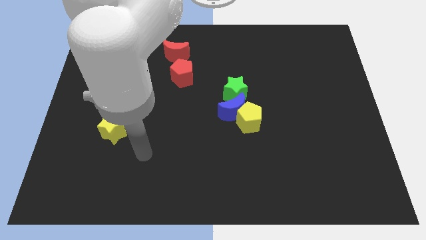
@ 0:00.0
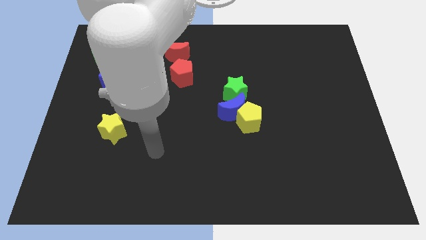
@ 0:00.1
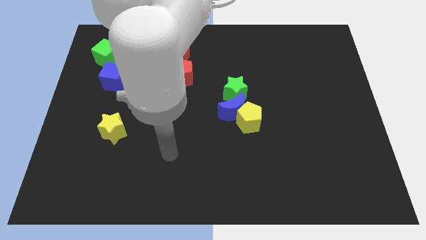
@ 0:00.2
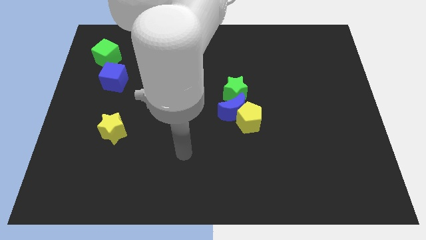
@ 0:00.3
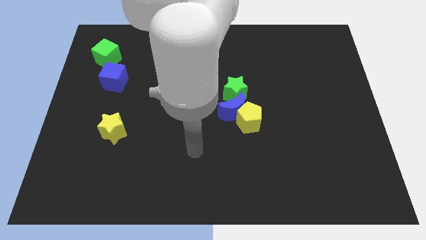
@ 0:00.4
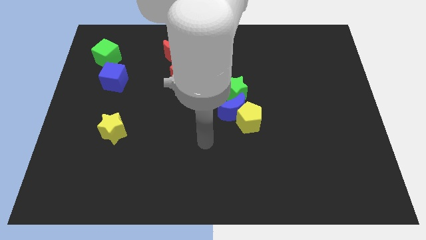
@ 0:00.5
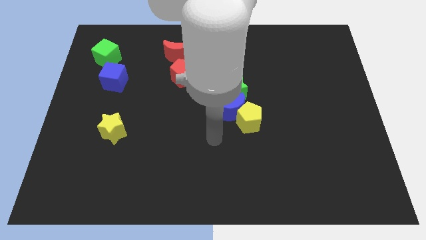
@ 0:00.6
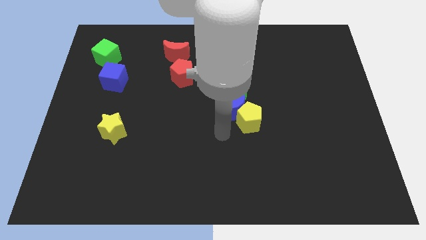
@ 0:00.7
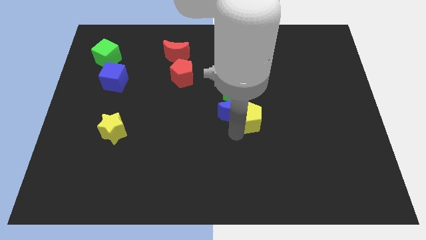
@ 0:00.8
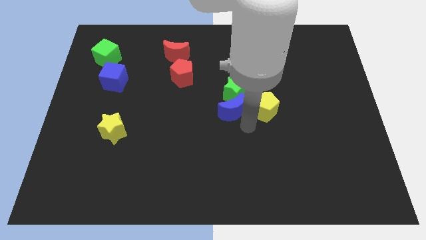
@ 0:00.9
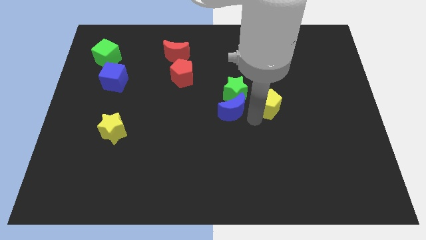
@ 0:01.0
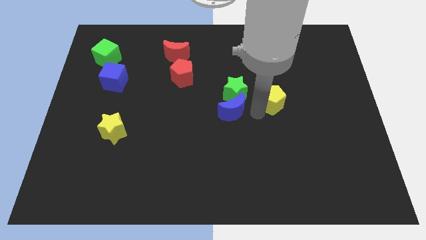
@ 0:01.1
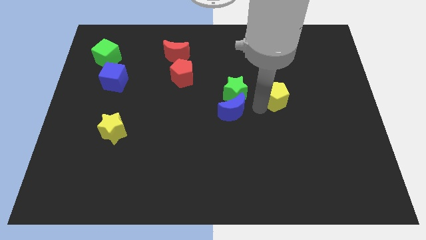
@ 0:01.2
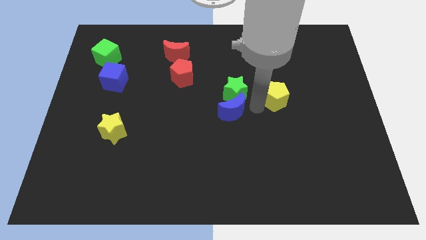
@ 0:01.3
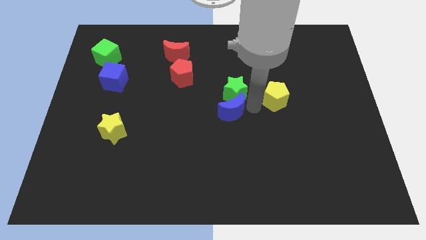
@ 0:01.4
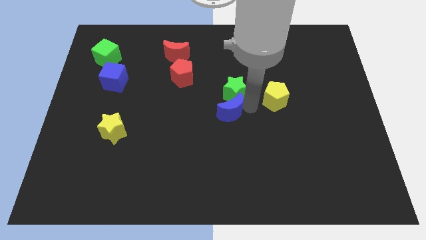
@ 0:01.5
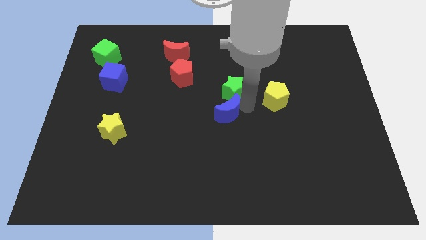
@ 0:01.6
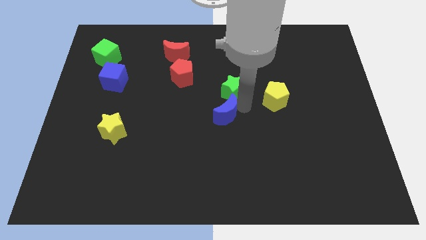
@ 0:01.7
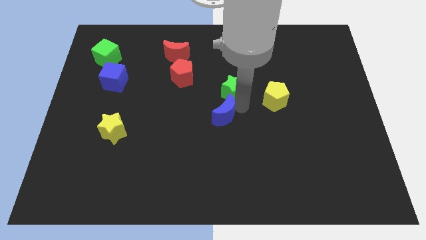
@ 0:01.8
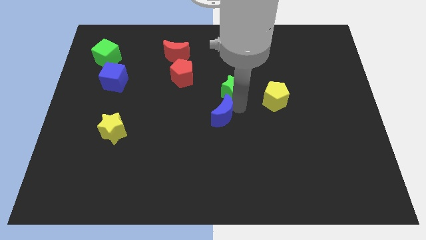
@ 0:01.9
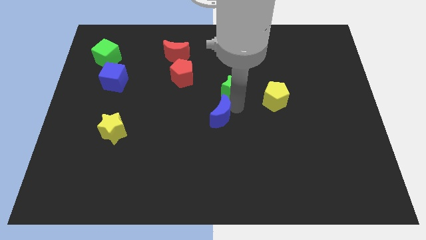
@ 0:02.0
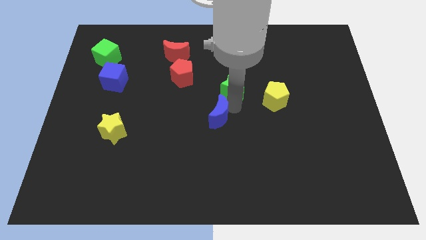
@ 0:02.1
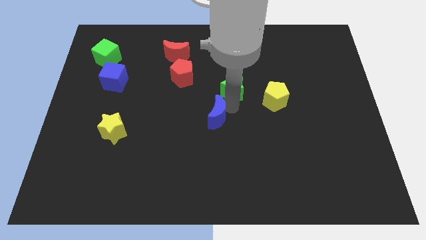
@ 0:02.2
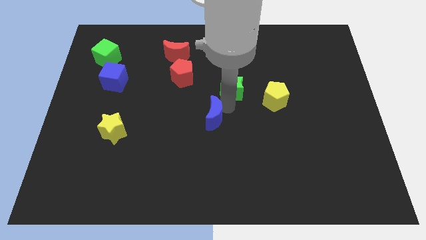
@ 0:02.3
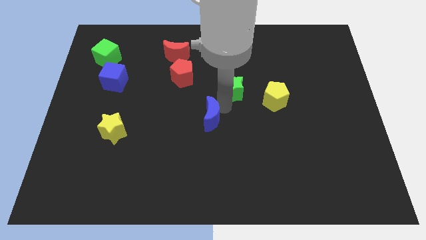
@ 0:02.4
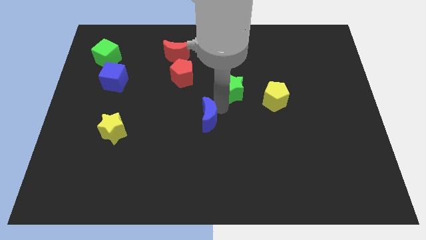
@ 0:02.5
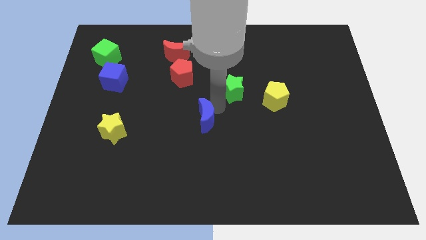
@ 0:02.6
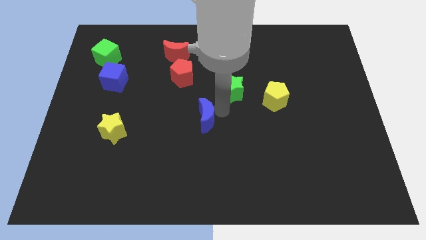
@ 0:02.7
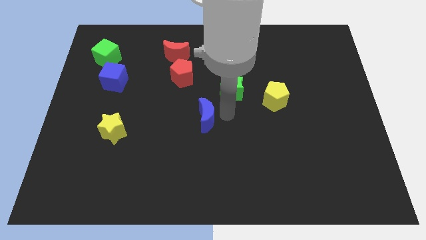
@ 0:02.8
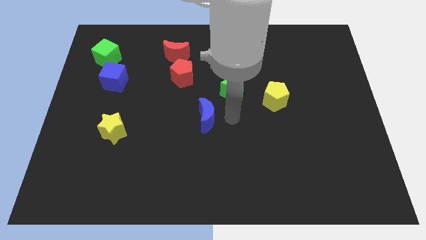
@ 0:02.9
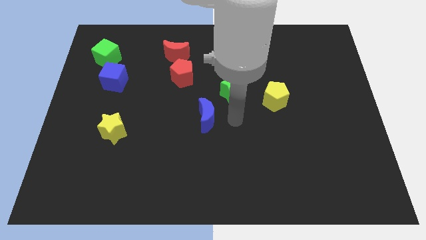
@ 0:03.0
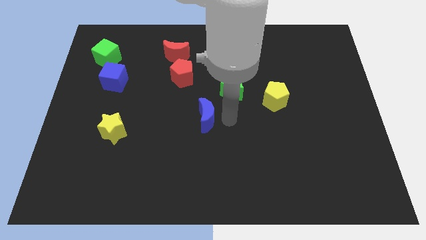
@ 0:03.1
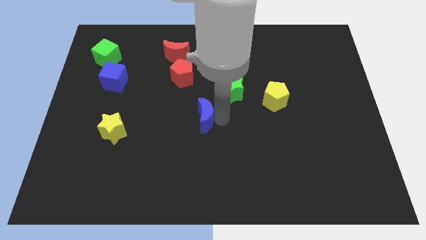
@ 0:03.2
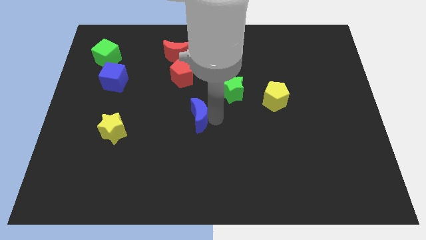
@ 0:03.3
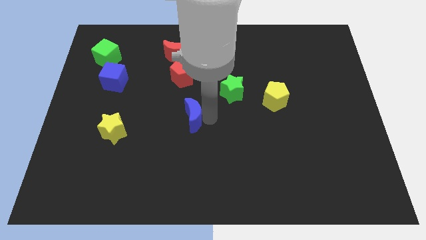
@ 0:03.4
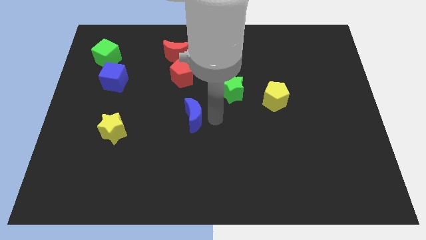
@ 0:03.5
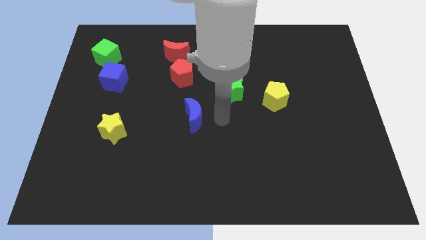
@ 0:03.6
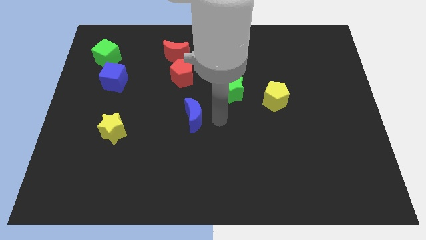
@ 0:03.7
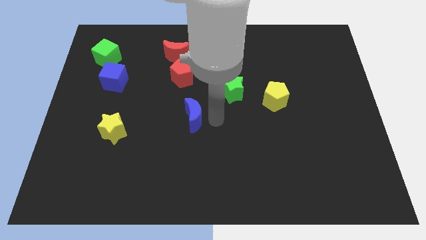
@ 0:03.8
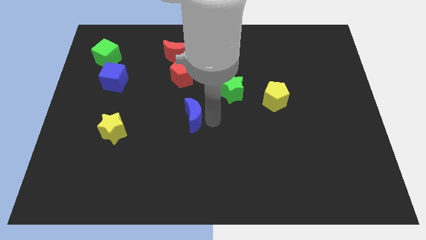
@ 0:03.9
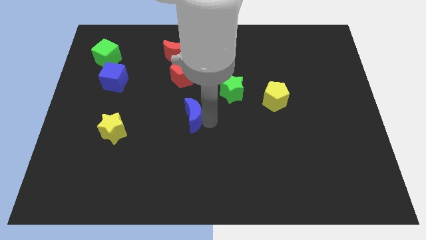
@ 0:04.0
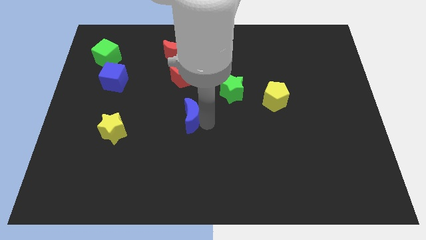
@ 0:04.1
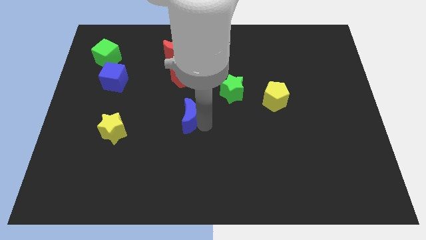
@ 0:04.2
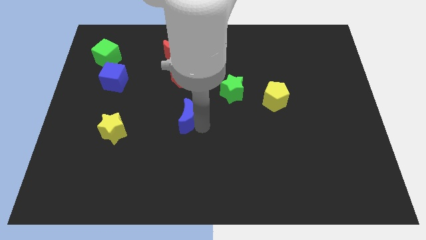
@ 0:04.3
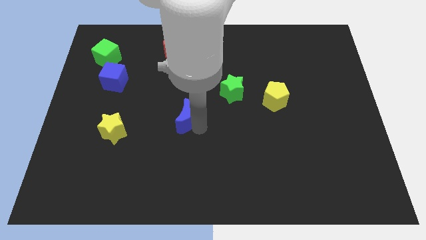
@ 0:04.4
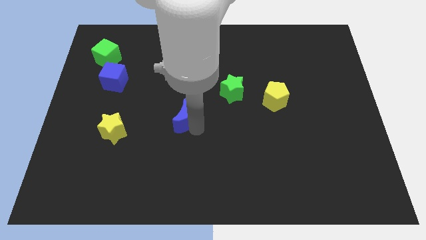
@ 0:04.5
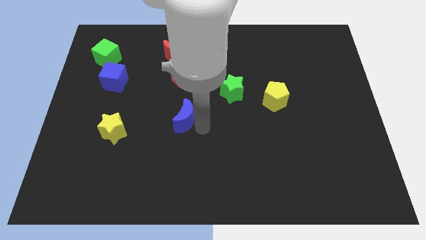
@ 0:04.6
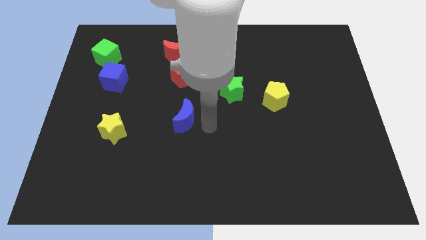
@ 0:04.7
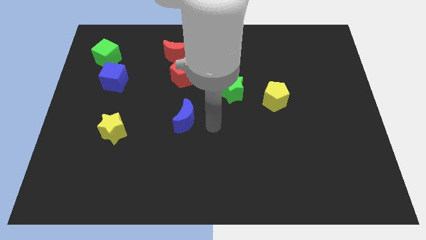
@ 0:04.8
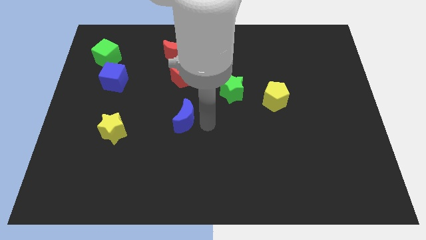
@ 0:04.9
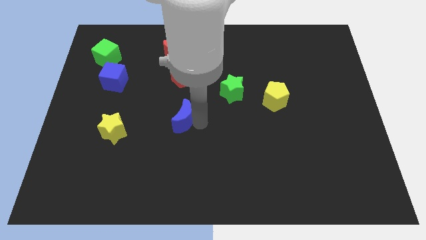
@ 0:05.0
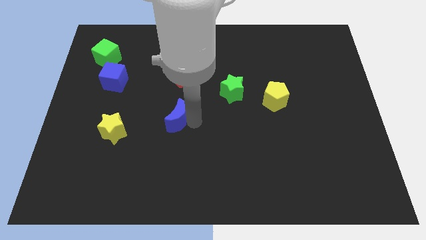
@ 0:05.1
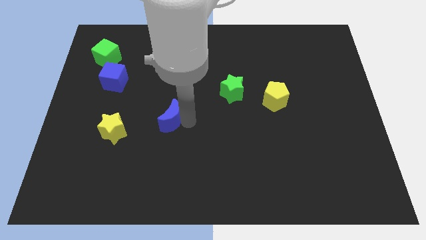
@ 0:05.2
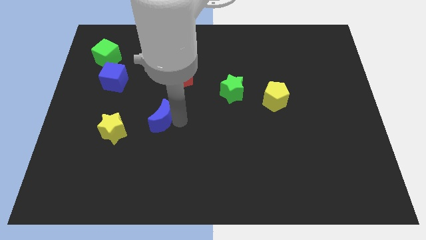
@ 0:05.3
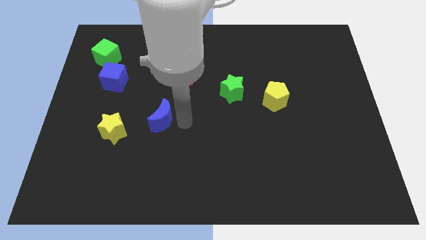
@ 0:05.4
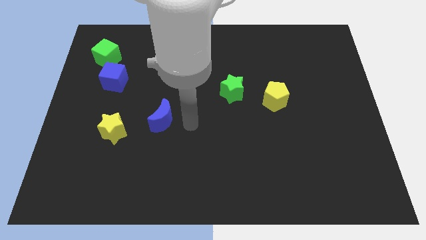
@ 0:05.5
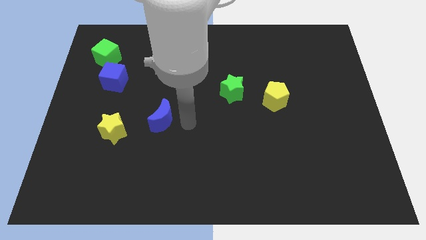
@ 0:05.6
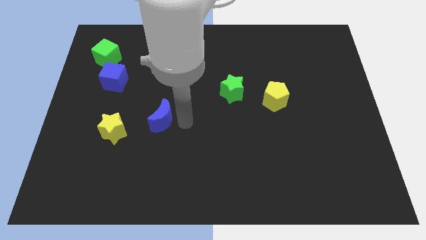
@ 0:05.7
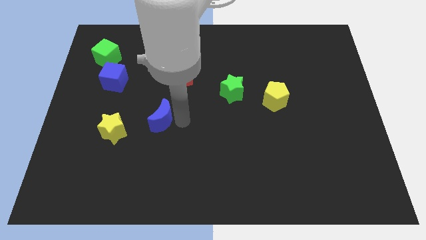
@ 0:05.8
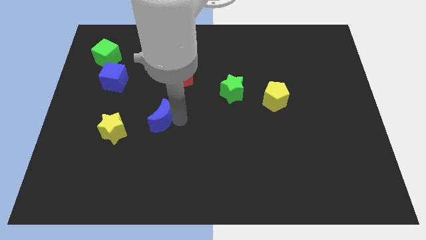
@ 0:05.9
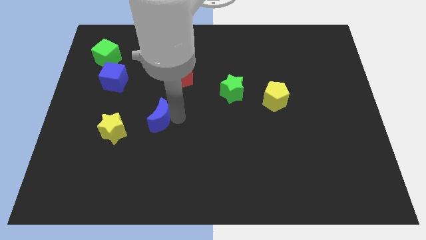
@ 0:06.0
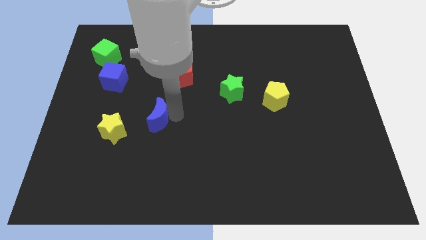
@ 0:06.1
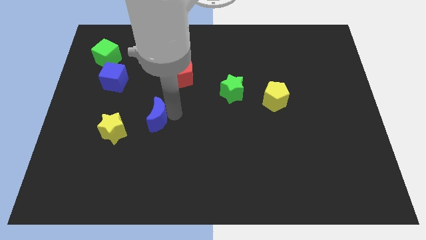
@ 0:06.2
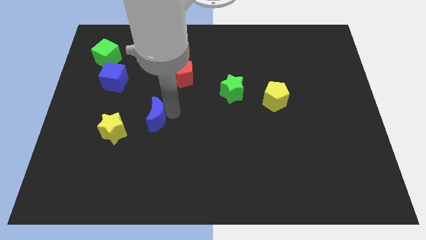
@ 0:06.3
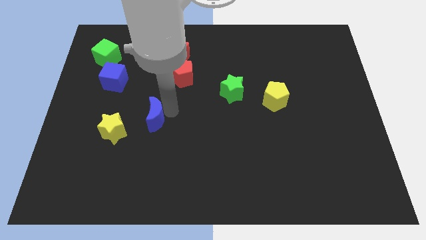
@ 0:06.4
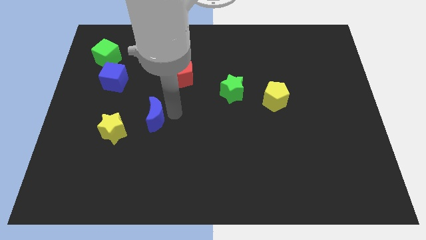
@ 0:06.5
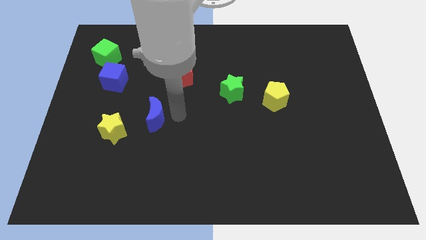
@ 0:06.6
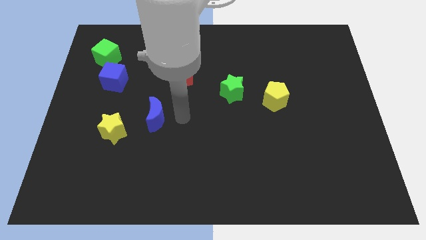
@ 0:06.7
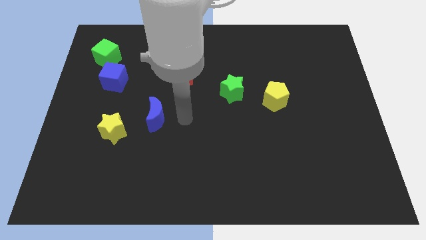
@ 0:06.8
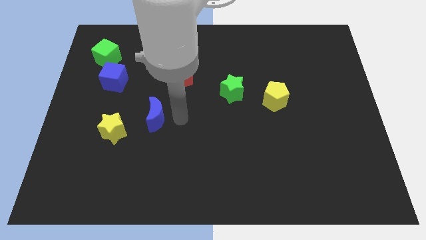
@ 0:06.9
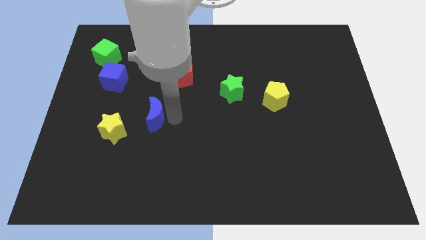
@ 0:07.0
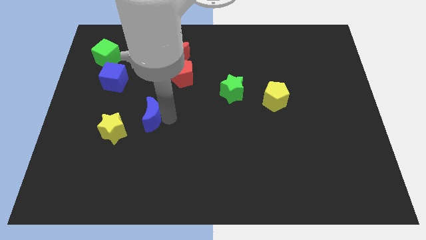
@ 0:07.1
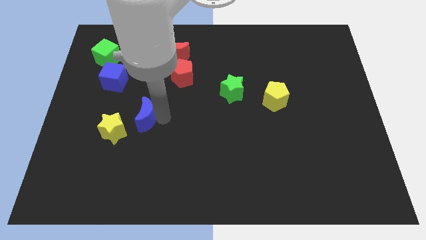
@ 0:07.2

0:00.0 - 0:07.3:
move the blue moon to the left

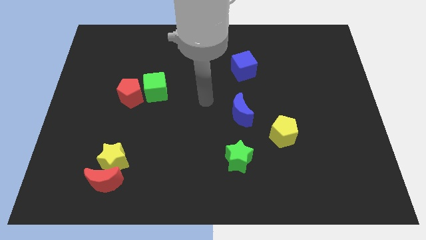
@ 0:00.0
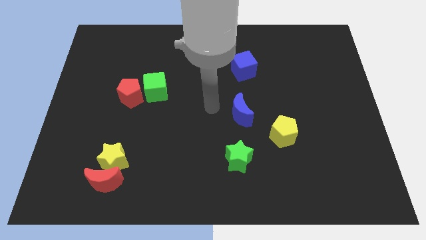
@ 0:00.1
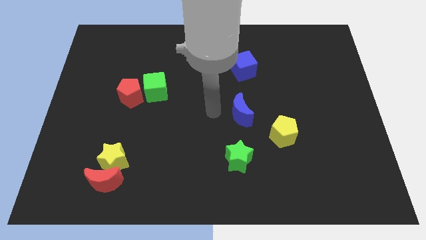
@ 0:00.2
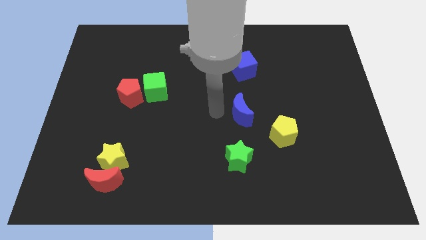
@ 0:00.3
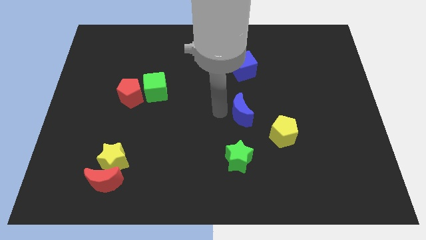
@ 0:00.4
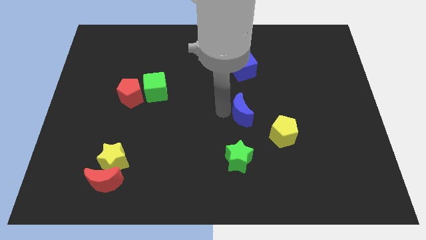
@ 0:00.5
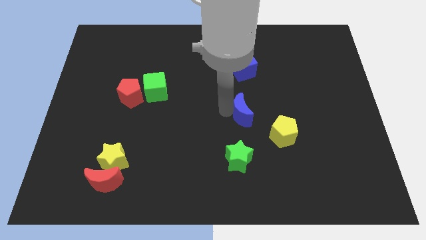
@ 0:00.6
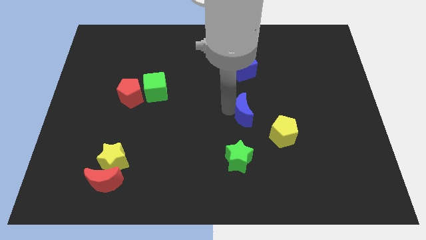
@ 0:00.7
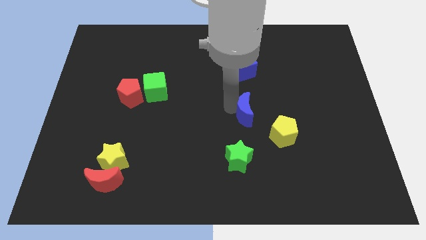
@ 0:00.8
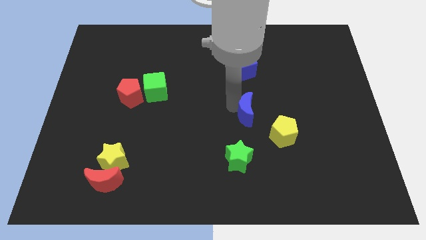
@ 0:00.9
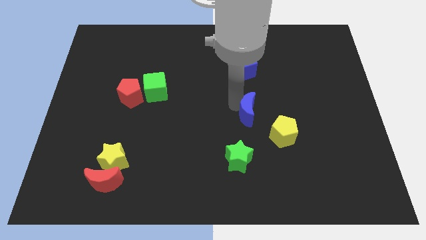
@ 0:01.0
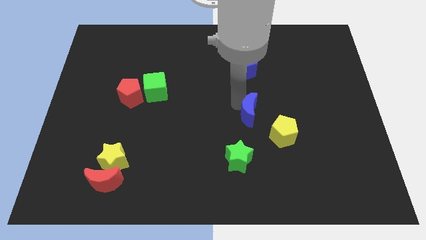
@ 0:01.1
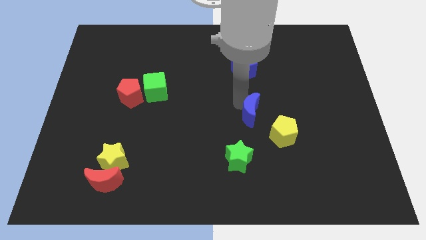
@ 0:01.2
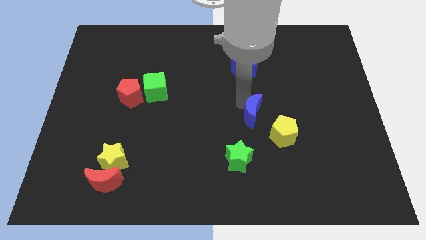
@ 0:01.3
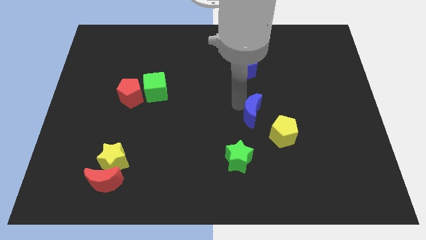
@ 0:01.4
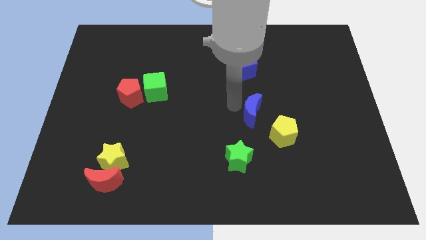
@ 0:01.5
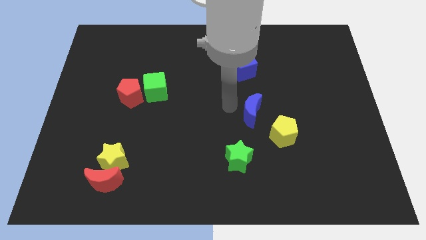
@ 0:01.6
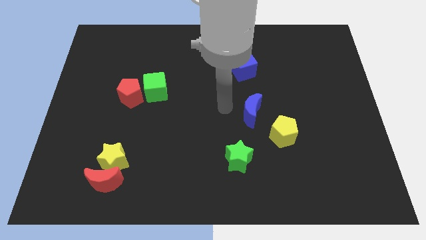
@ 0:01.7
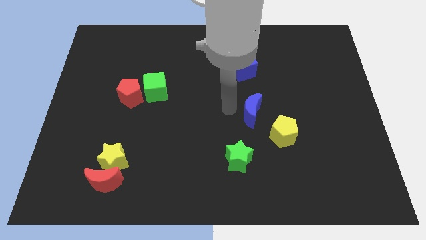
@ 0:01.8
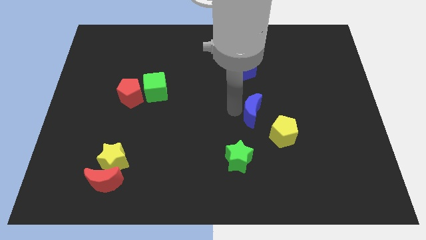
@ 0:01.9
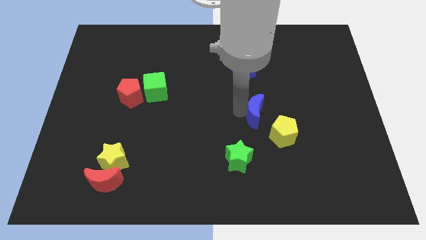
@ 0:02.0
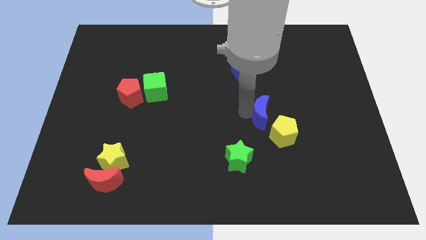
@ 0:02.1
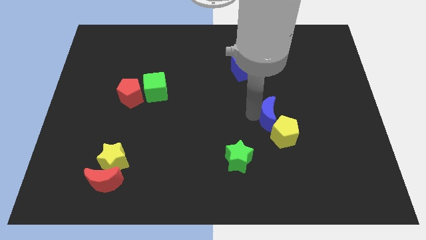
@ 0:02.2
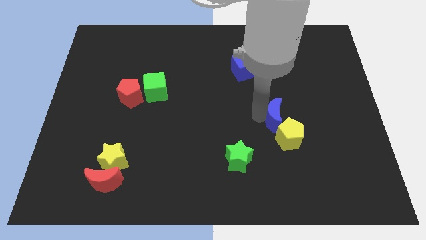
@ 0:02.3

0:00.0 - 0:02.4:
slightly push the blue moon right
